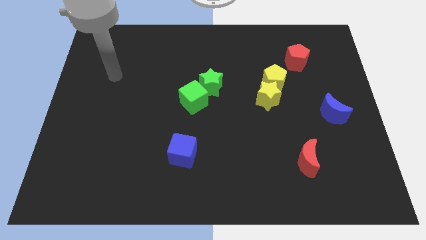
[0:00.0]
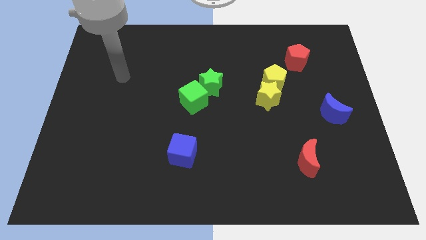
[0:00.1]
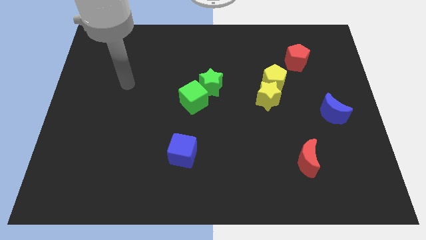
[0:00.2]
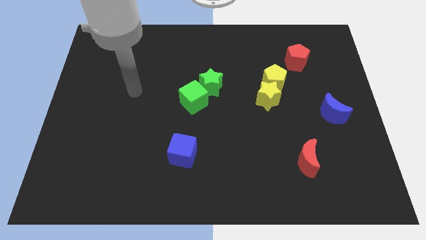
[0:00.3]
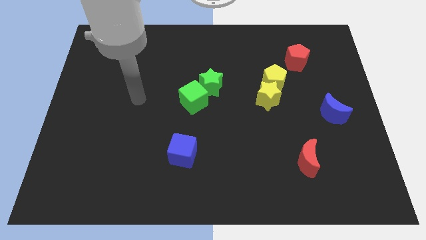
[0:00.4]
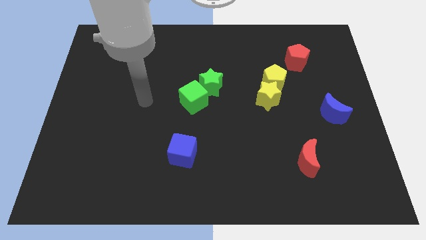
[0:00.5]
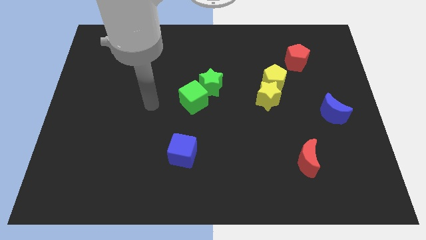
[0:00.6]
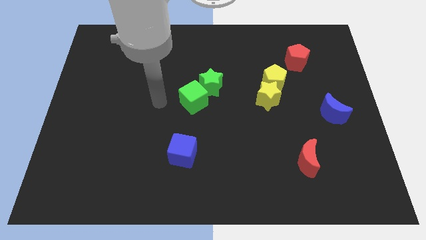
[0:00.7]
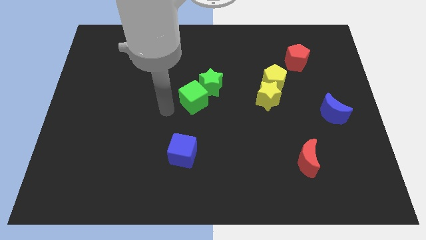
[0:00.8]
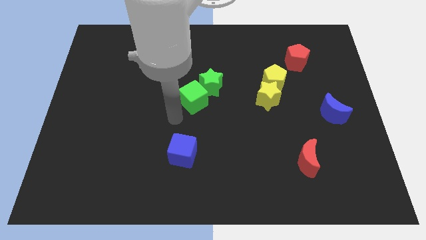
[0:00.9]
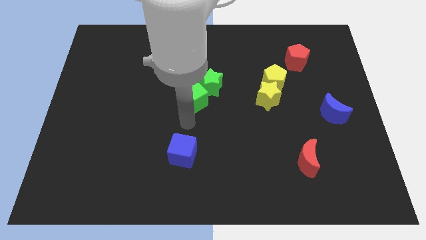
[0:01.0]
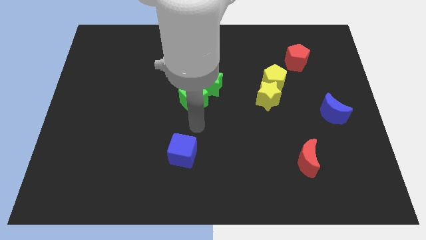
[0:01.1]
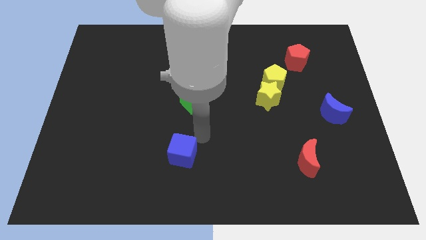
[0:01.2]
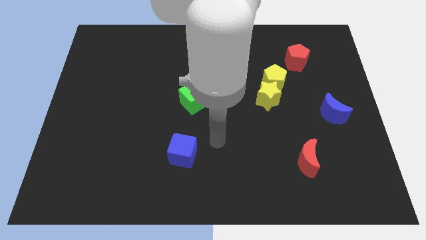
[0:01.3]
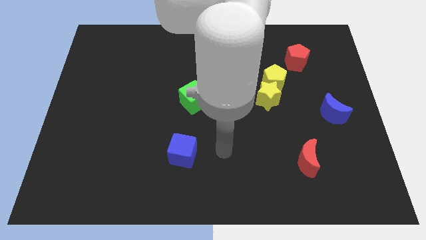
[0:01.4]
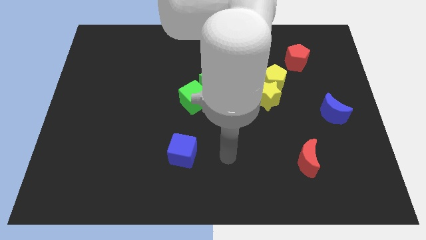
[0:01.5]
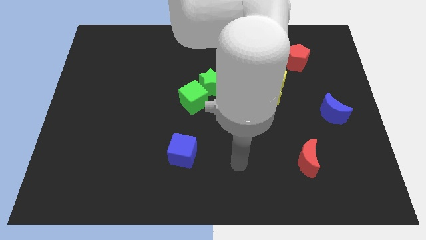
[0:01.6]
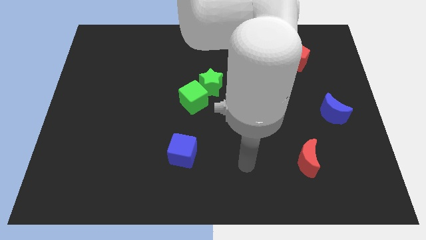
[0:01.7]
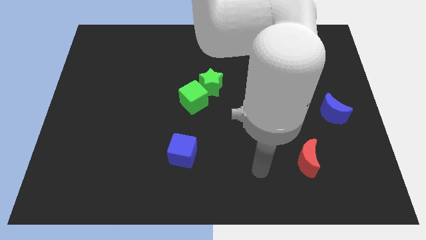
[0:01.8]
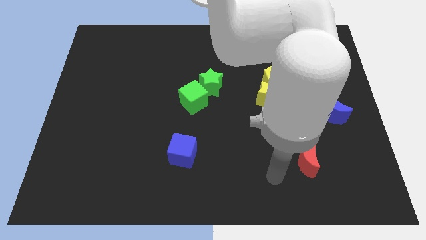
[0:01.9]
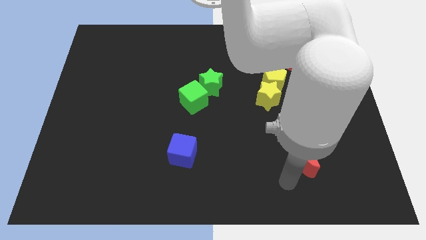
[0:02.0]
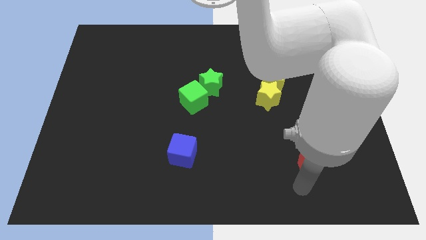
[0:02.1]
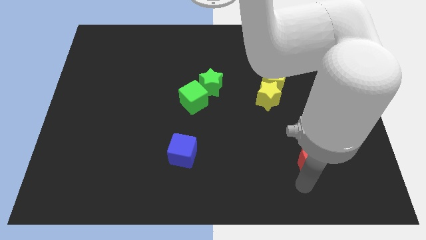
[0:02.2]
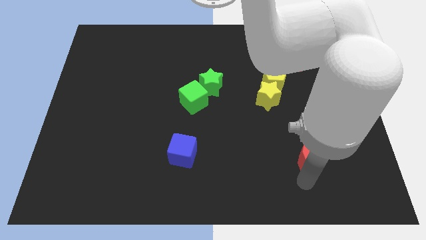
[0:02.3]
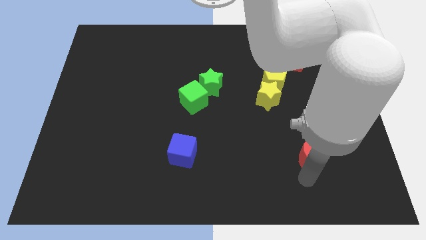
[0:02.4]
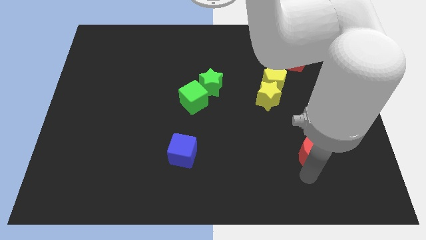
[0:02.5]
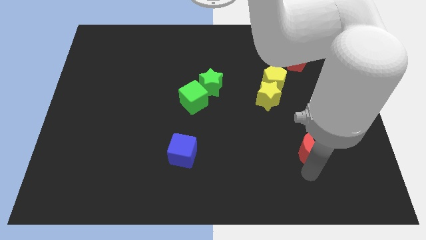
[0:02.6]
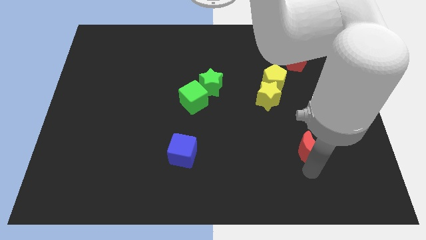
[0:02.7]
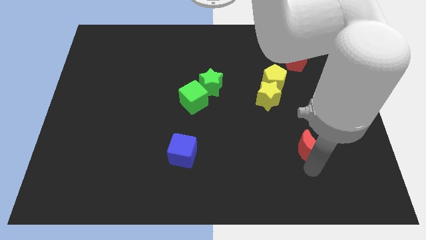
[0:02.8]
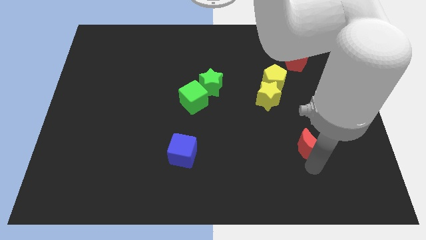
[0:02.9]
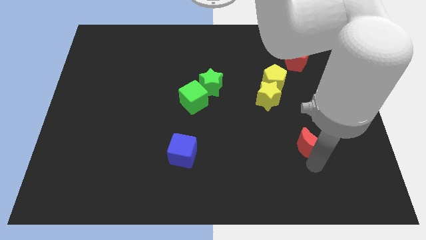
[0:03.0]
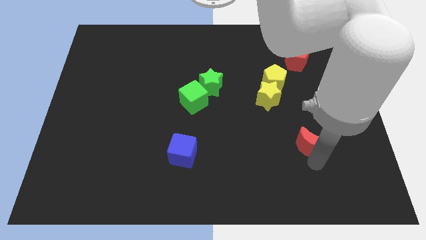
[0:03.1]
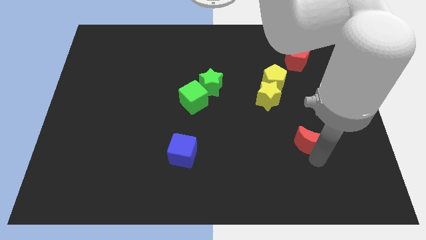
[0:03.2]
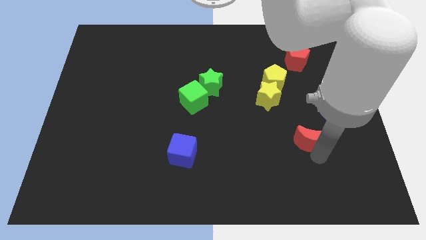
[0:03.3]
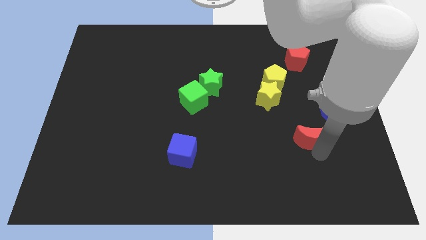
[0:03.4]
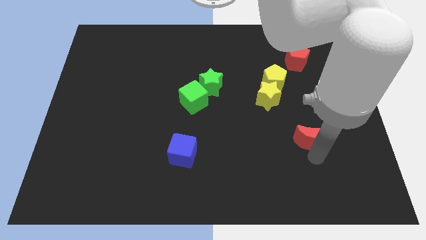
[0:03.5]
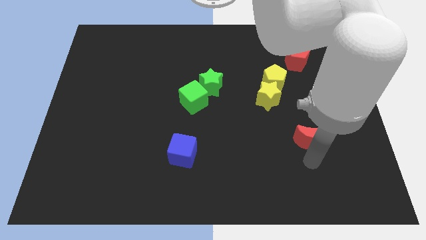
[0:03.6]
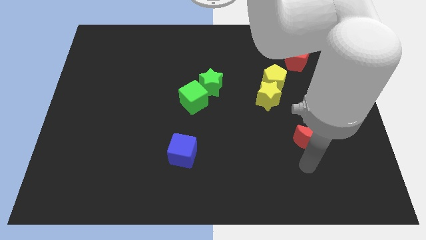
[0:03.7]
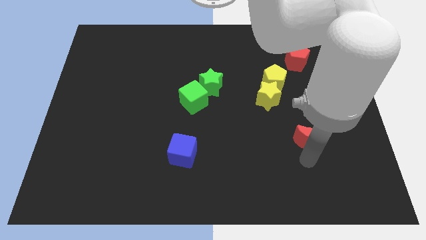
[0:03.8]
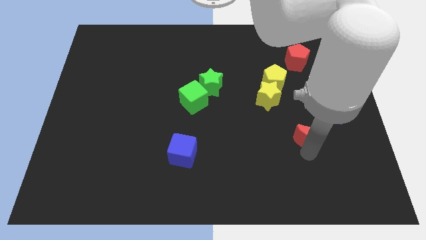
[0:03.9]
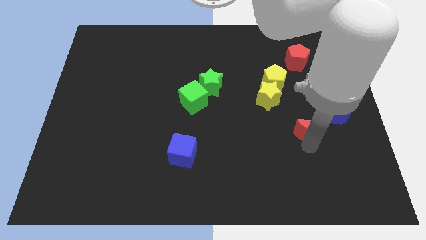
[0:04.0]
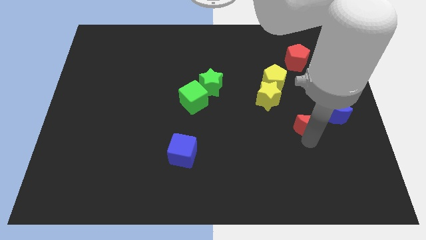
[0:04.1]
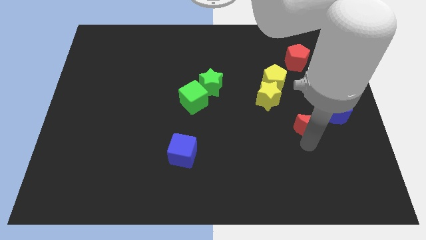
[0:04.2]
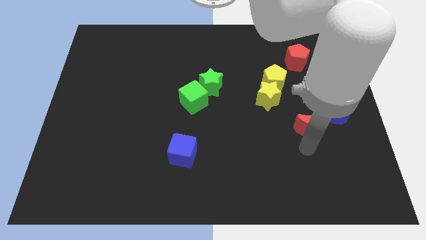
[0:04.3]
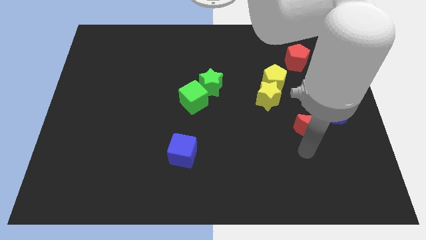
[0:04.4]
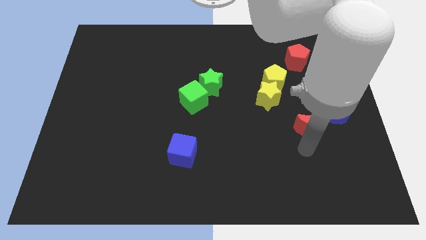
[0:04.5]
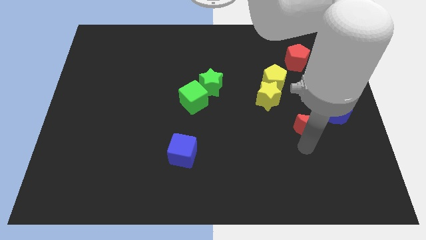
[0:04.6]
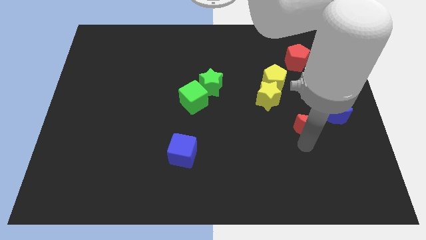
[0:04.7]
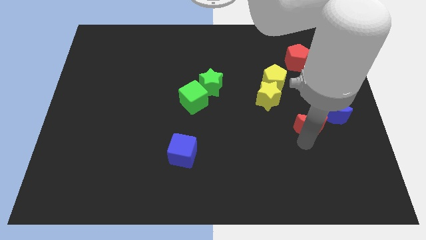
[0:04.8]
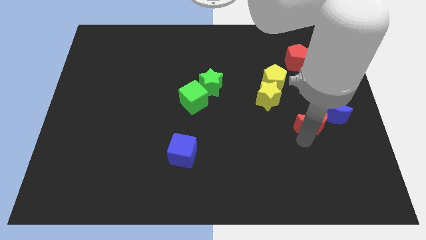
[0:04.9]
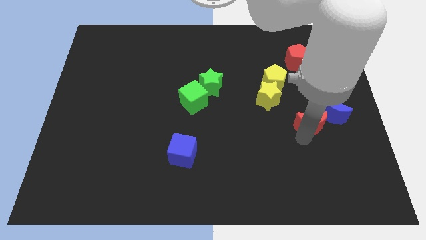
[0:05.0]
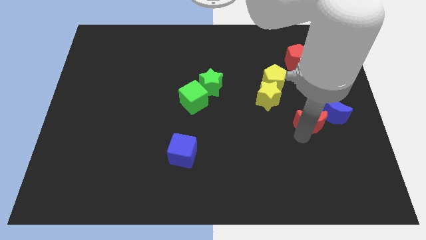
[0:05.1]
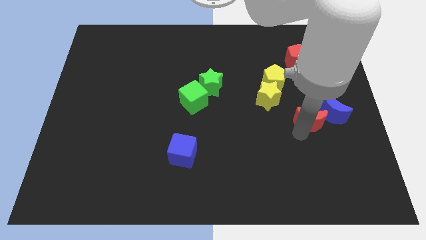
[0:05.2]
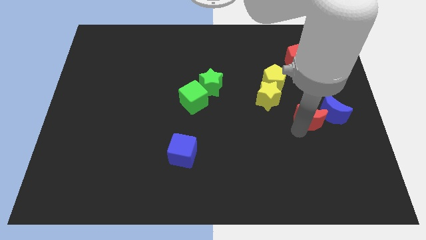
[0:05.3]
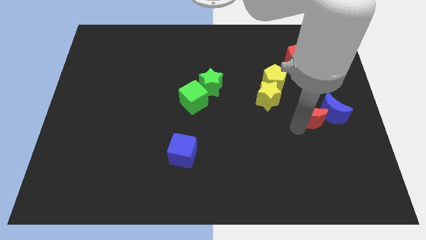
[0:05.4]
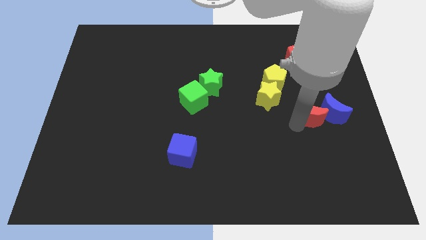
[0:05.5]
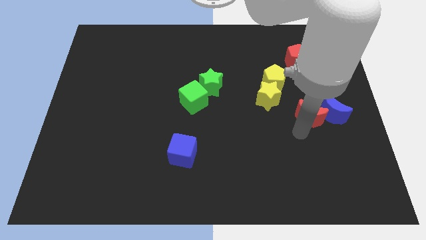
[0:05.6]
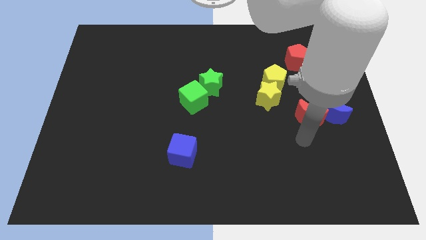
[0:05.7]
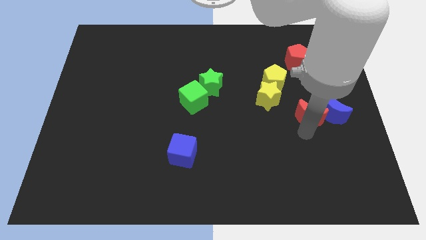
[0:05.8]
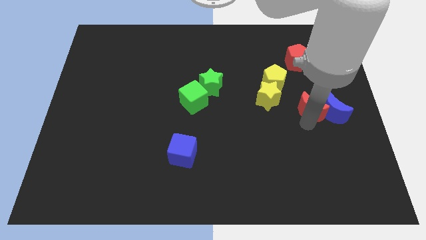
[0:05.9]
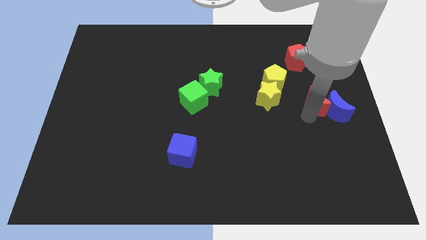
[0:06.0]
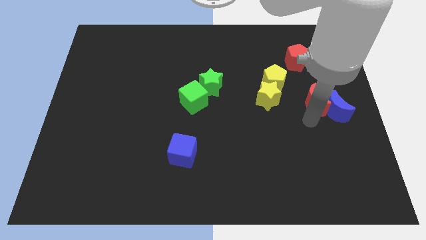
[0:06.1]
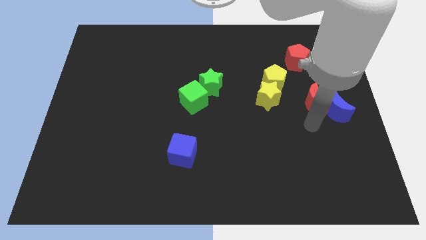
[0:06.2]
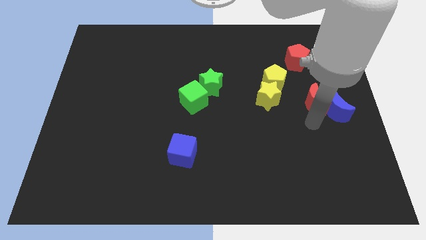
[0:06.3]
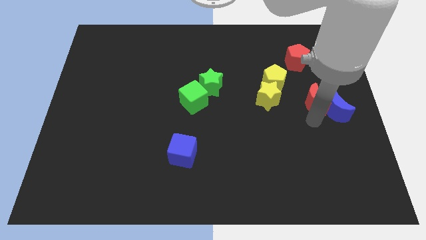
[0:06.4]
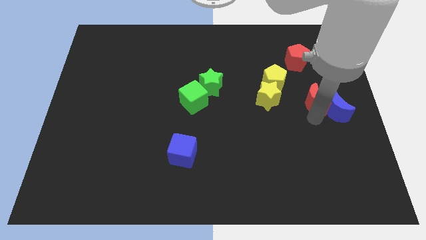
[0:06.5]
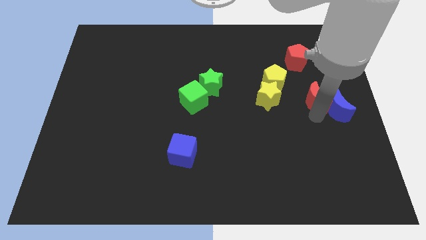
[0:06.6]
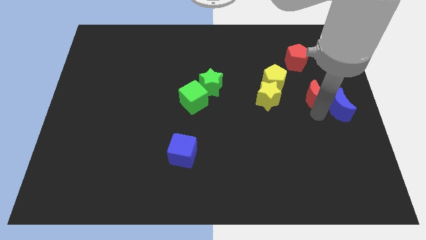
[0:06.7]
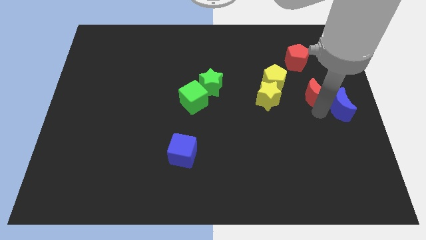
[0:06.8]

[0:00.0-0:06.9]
put the red moon to the right side of the yellow pentagon

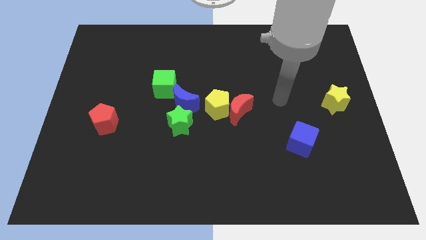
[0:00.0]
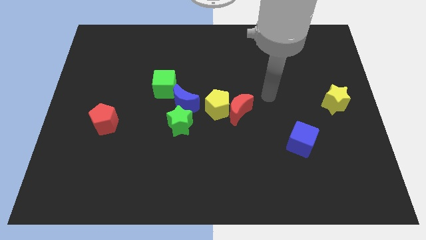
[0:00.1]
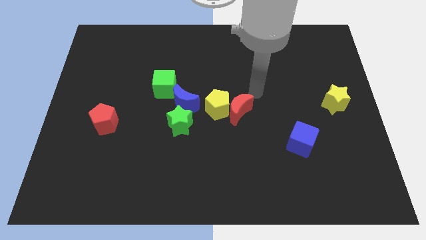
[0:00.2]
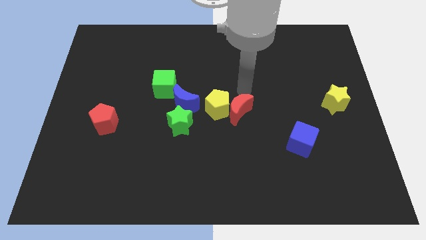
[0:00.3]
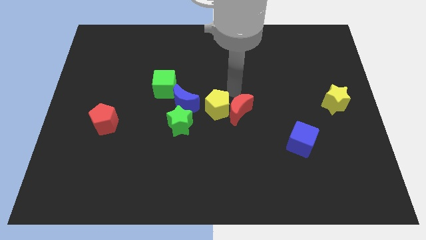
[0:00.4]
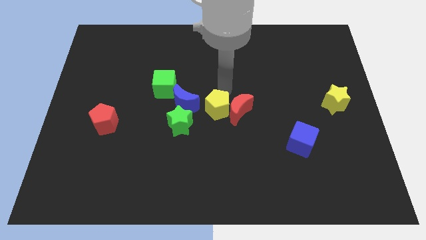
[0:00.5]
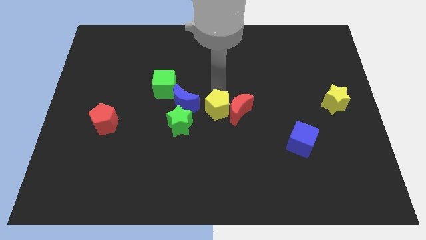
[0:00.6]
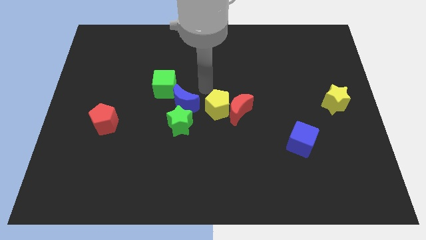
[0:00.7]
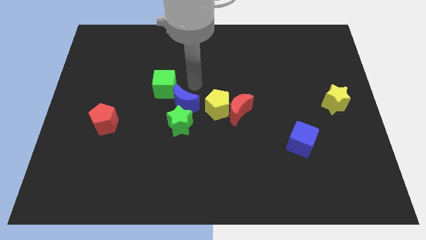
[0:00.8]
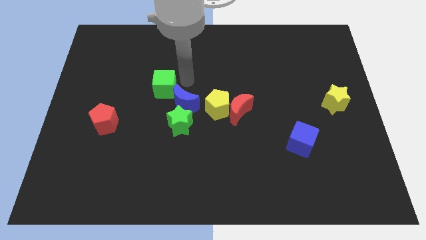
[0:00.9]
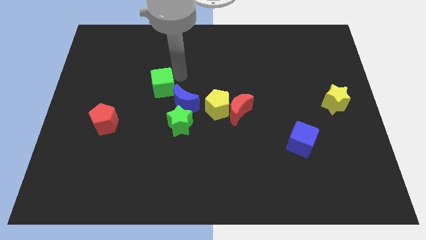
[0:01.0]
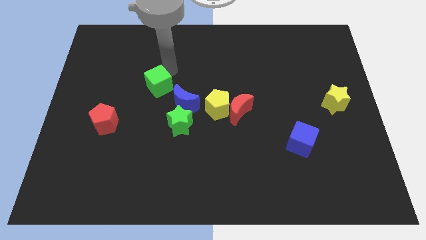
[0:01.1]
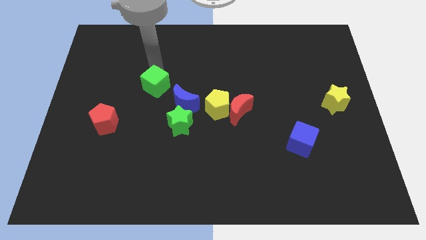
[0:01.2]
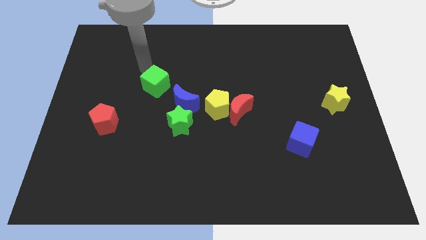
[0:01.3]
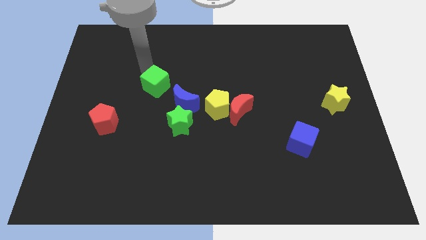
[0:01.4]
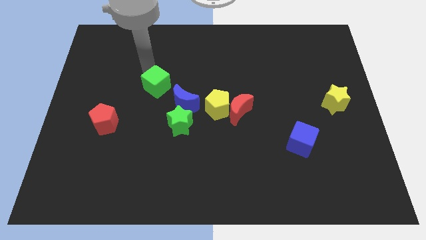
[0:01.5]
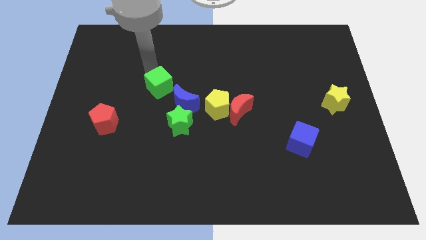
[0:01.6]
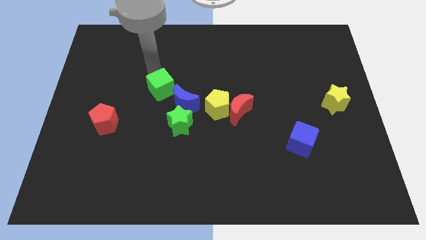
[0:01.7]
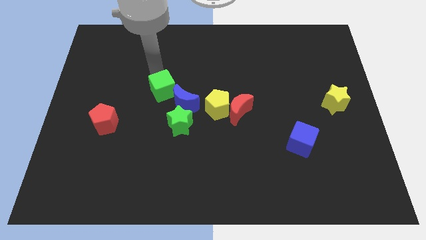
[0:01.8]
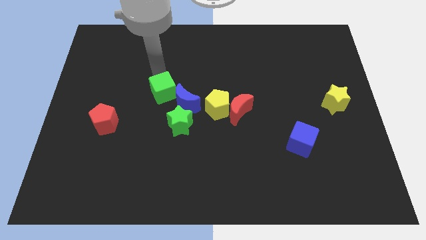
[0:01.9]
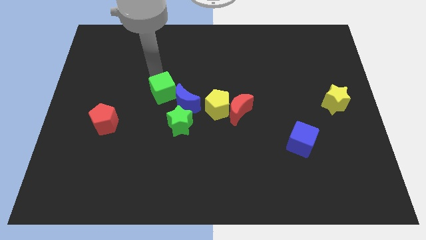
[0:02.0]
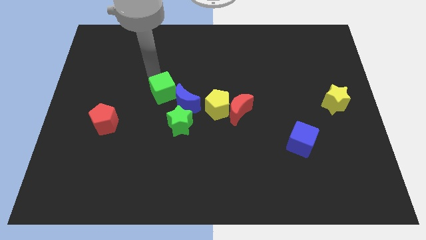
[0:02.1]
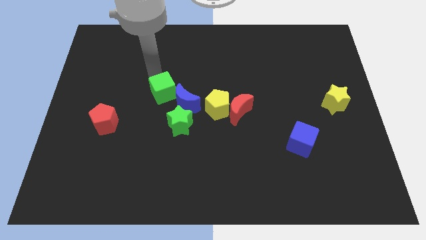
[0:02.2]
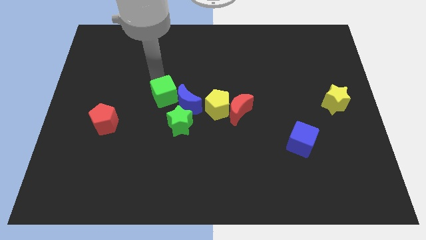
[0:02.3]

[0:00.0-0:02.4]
push the green cube to the left side of the yellow pentagon
